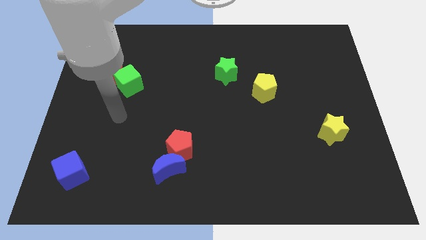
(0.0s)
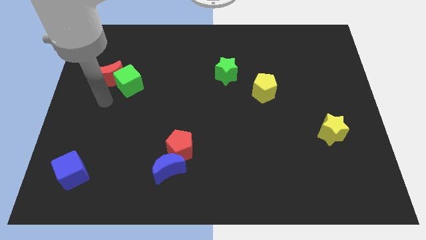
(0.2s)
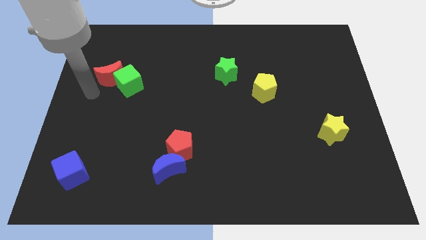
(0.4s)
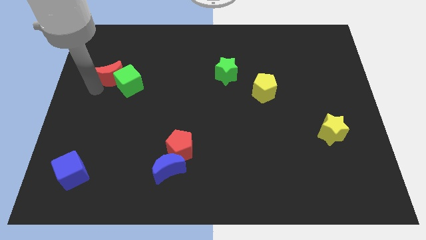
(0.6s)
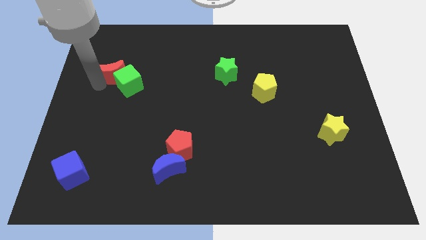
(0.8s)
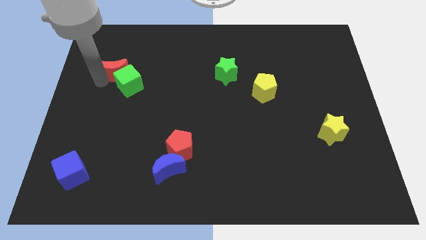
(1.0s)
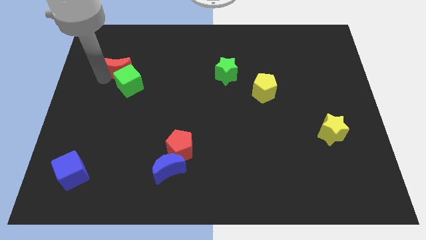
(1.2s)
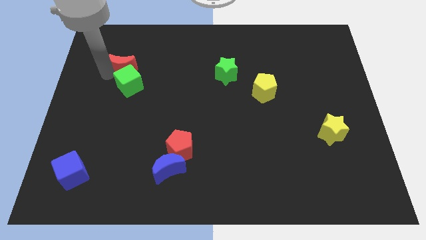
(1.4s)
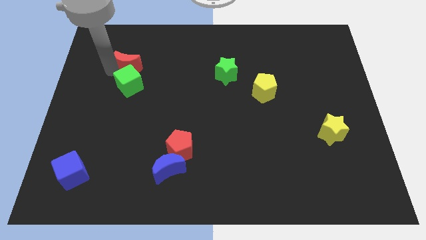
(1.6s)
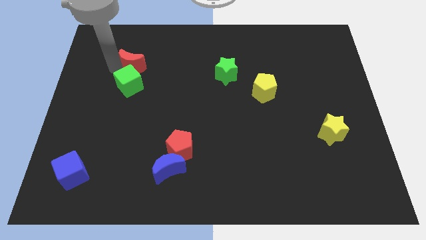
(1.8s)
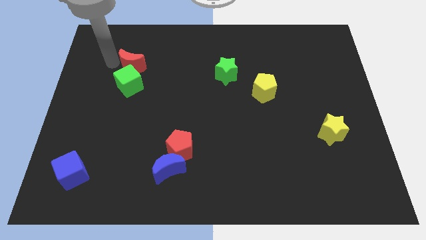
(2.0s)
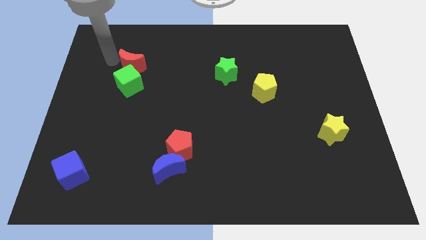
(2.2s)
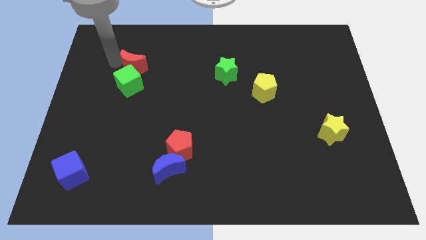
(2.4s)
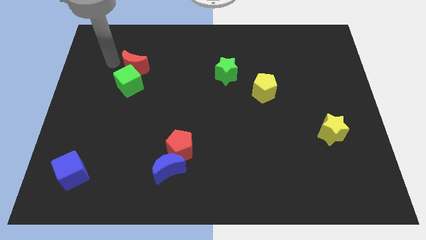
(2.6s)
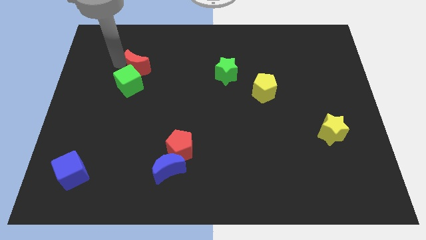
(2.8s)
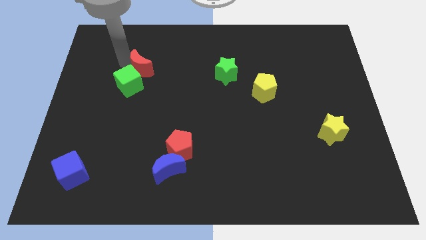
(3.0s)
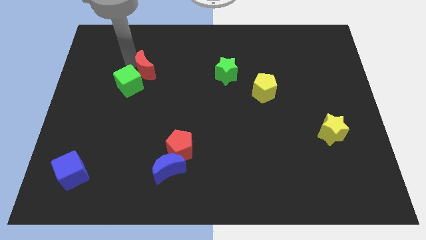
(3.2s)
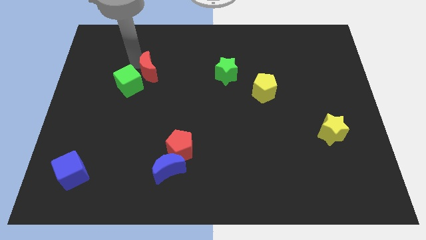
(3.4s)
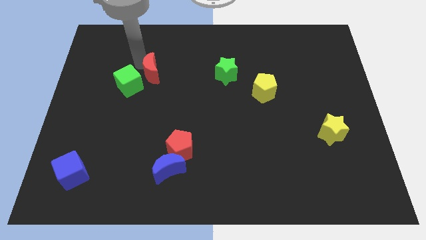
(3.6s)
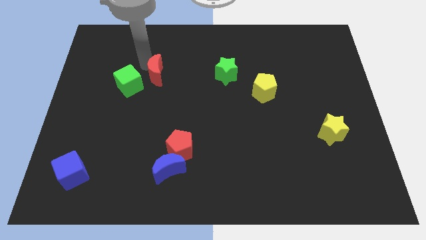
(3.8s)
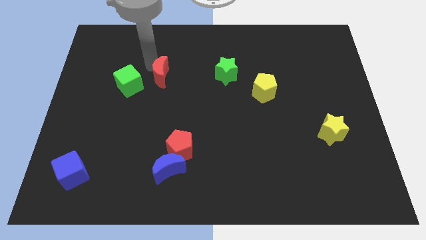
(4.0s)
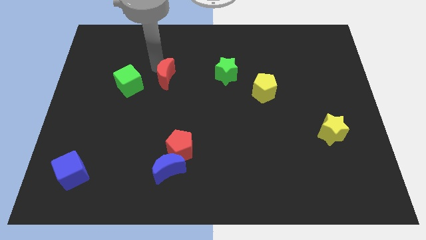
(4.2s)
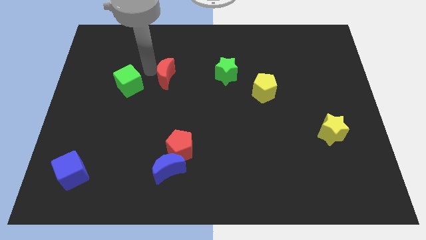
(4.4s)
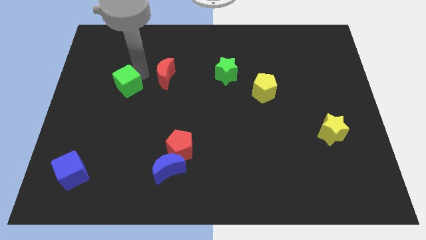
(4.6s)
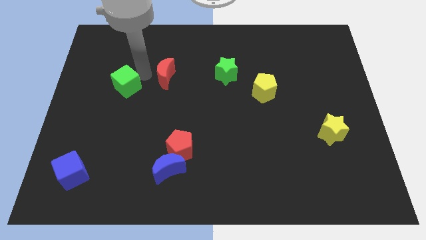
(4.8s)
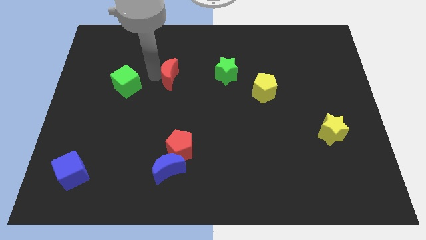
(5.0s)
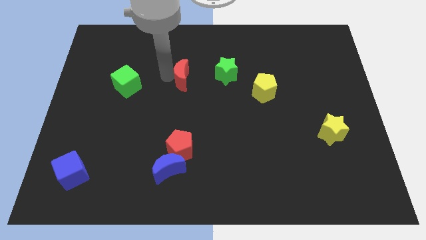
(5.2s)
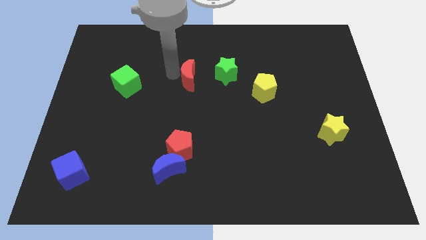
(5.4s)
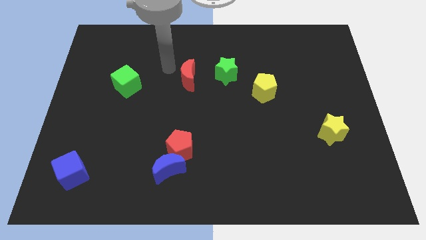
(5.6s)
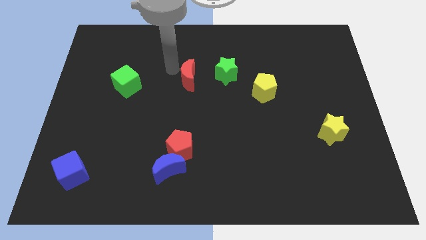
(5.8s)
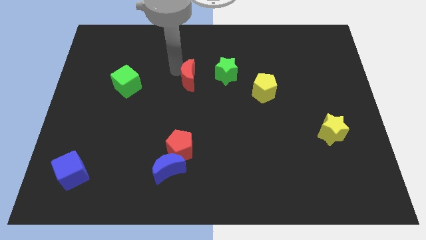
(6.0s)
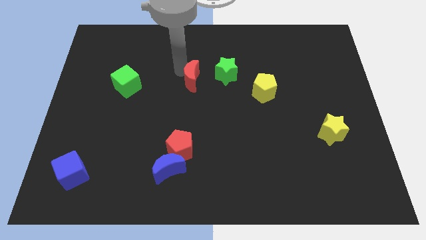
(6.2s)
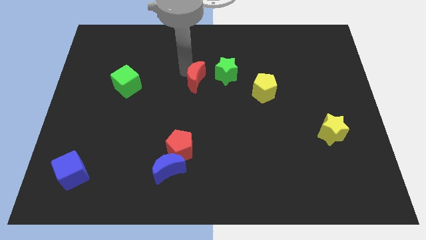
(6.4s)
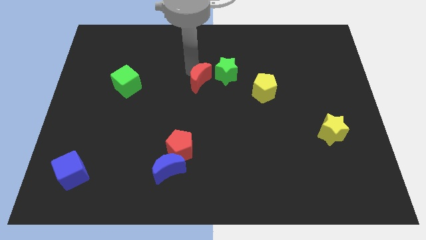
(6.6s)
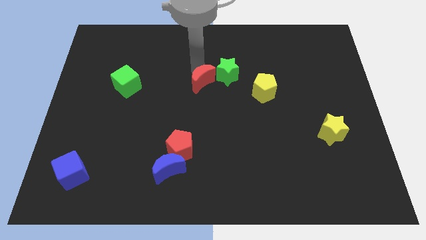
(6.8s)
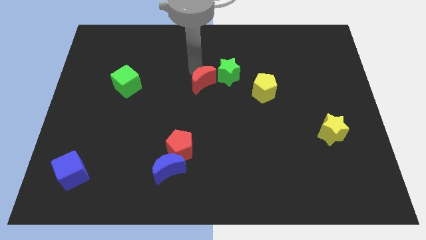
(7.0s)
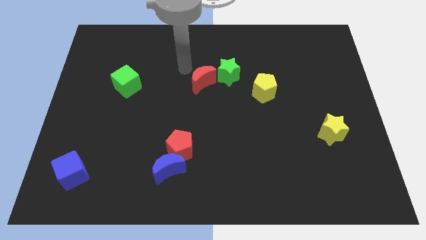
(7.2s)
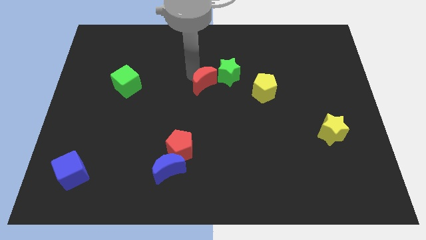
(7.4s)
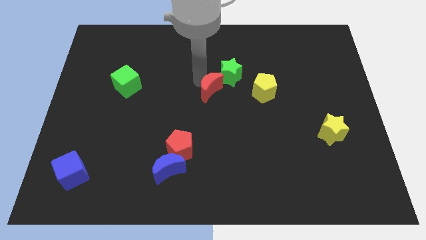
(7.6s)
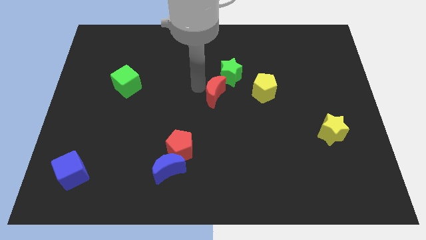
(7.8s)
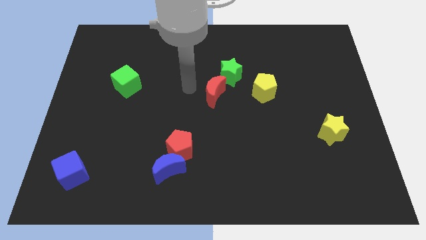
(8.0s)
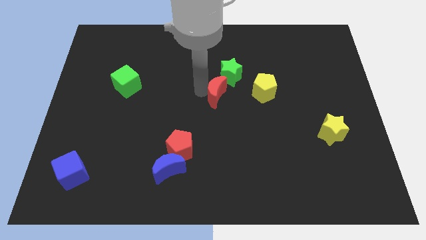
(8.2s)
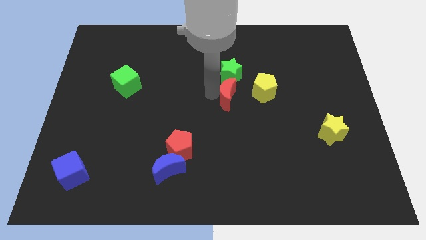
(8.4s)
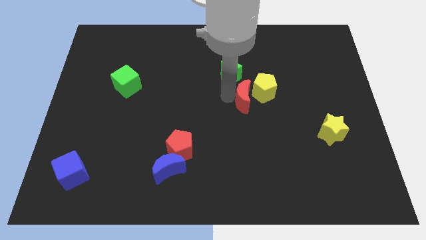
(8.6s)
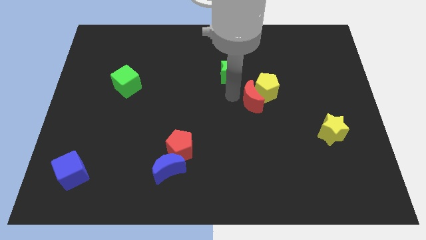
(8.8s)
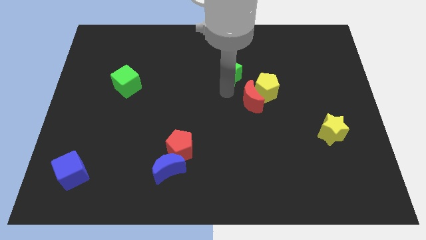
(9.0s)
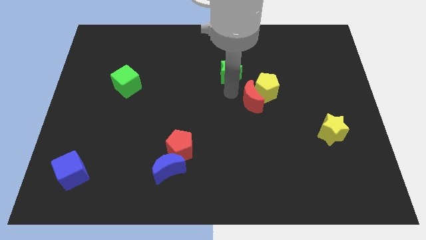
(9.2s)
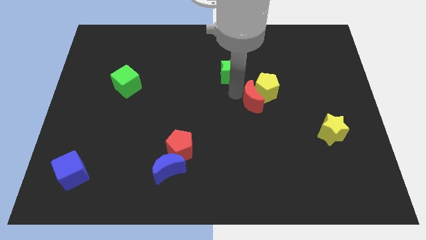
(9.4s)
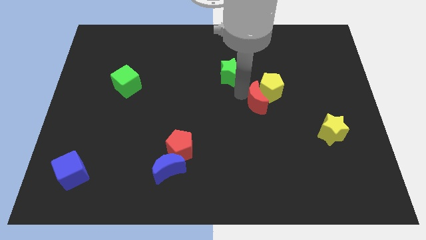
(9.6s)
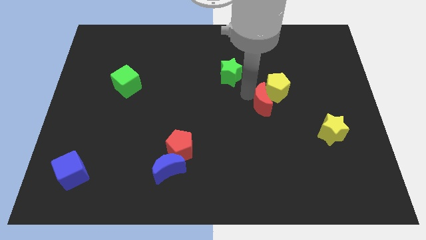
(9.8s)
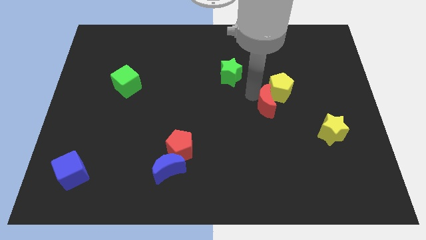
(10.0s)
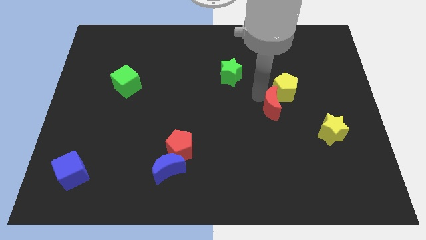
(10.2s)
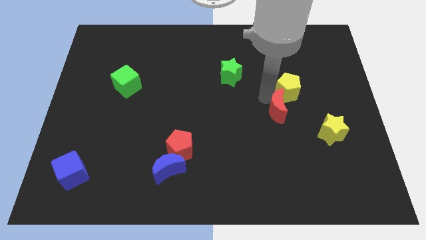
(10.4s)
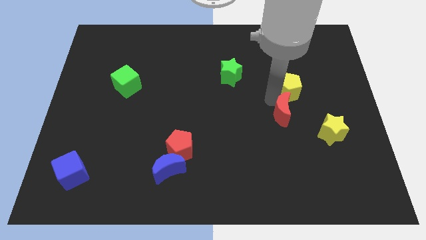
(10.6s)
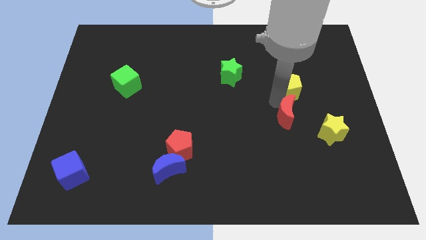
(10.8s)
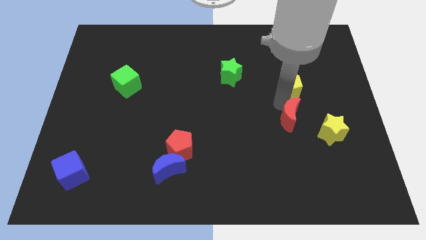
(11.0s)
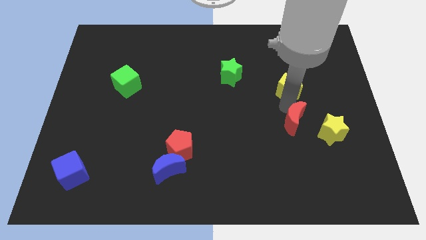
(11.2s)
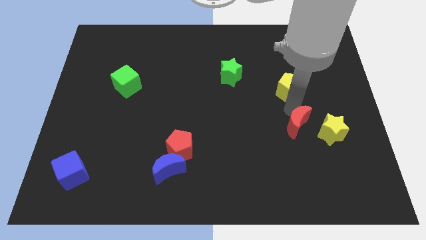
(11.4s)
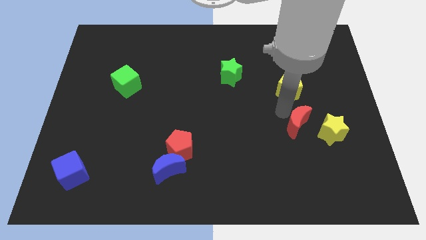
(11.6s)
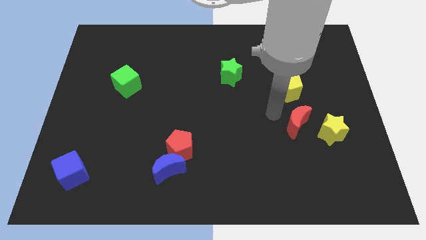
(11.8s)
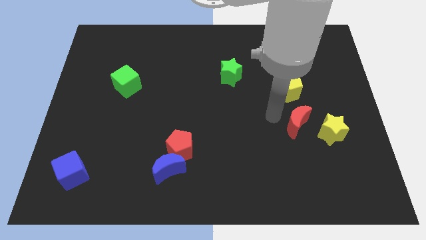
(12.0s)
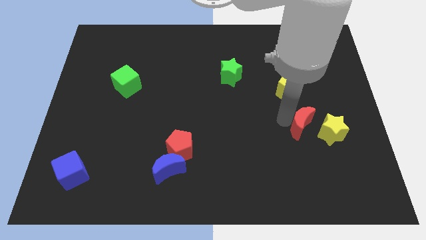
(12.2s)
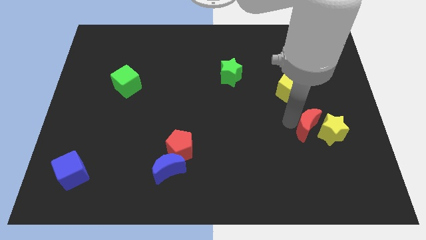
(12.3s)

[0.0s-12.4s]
move the red moon next to the yellow star

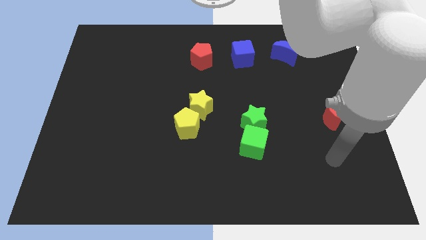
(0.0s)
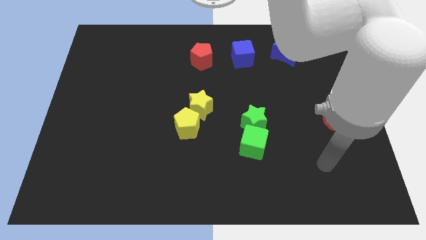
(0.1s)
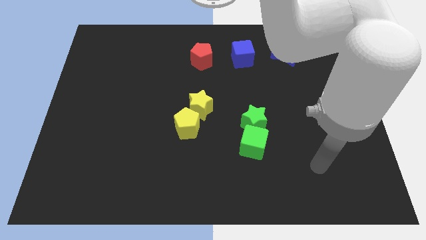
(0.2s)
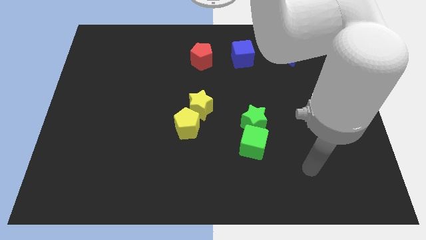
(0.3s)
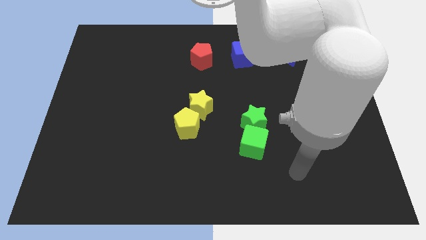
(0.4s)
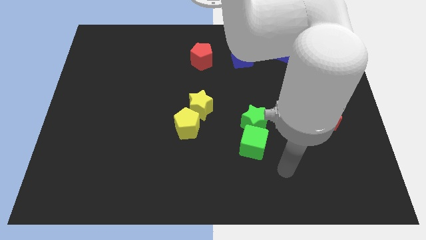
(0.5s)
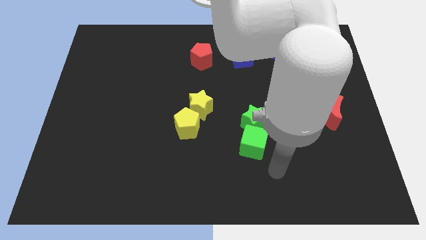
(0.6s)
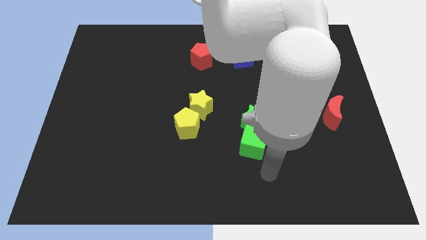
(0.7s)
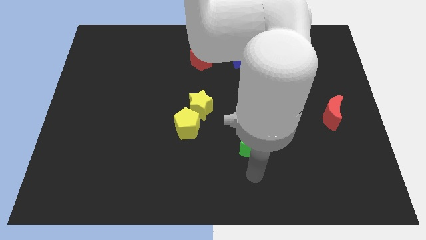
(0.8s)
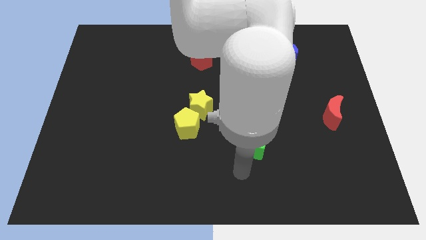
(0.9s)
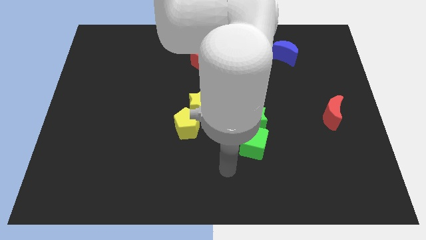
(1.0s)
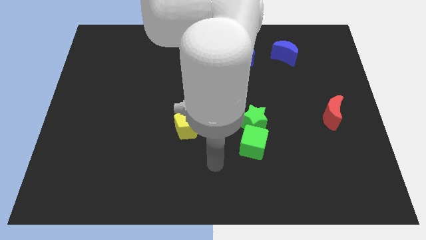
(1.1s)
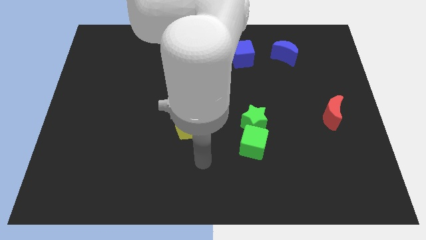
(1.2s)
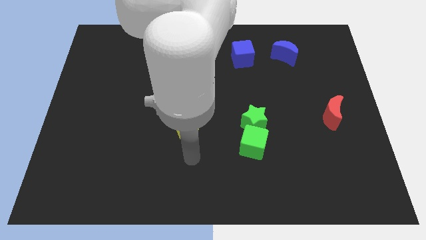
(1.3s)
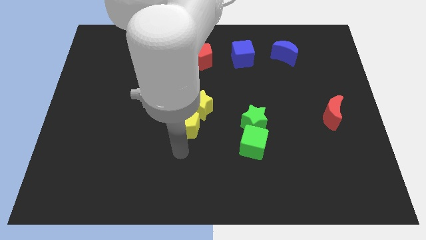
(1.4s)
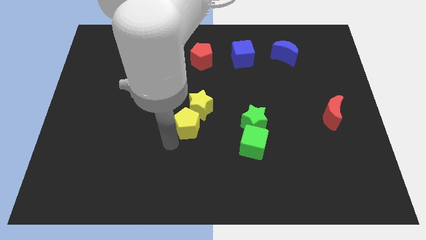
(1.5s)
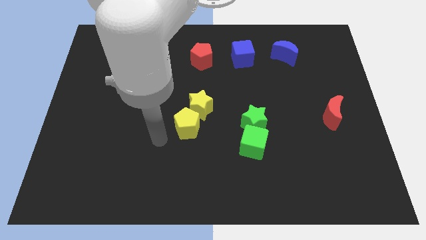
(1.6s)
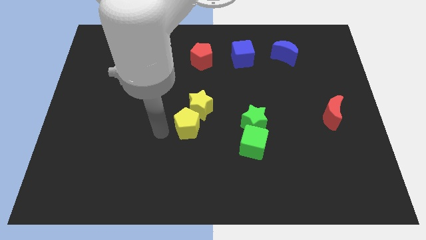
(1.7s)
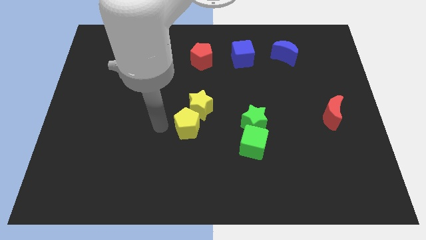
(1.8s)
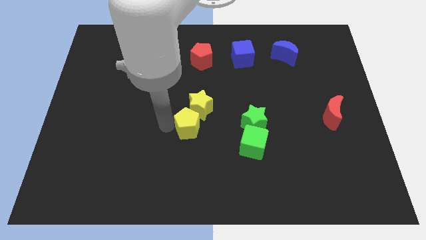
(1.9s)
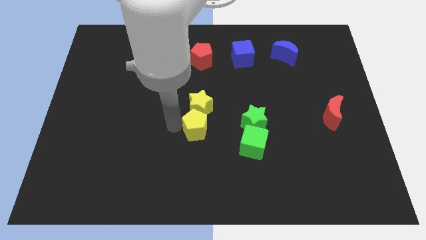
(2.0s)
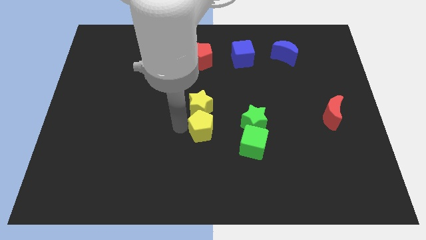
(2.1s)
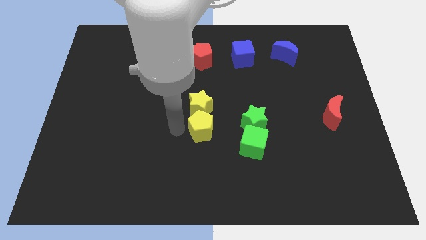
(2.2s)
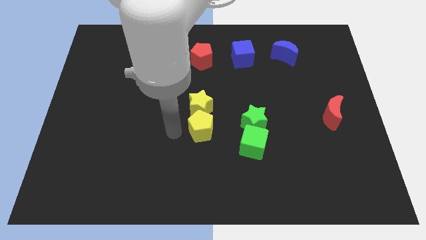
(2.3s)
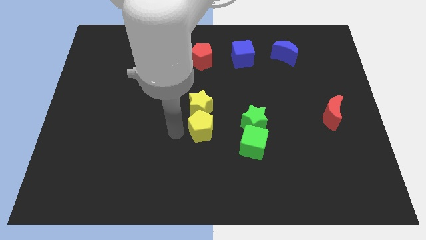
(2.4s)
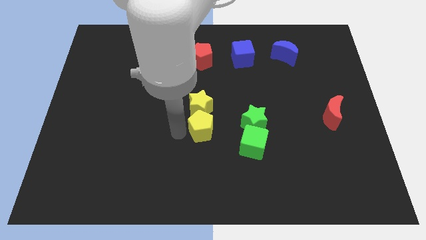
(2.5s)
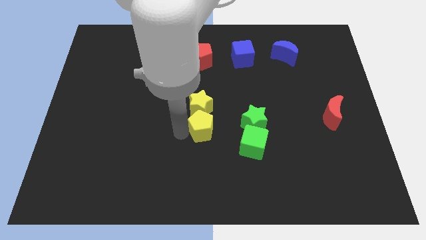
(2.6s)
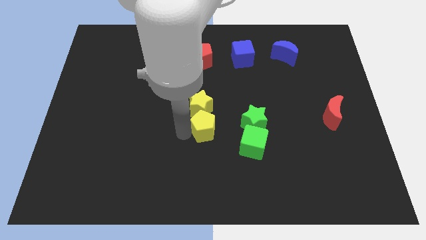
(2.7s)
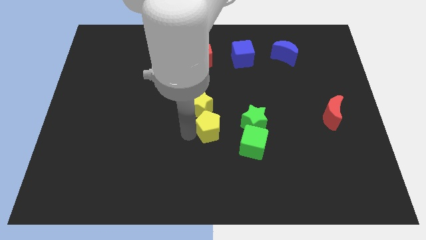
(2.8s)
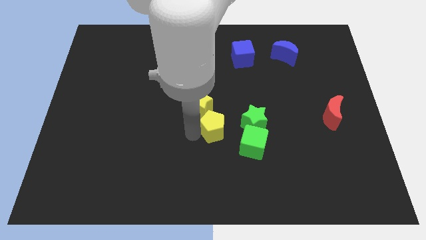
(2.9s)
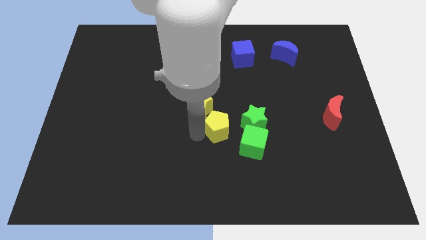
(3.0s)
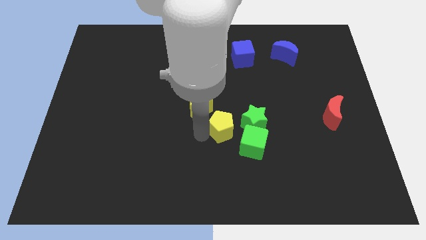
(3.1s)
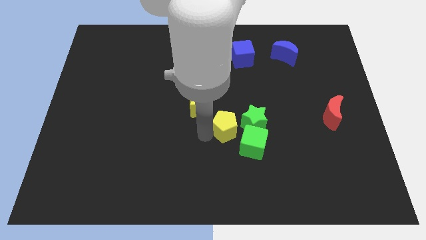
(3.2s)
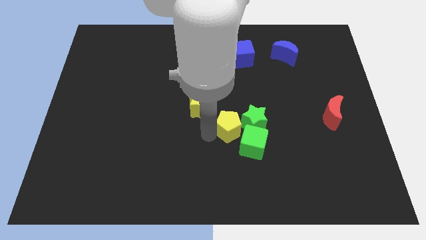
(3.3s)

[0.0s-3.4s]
put the yellow pentagon to the green star
